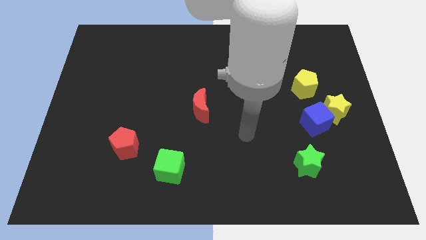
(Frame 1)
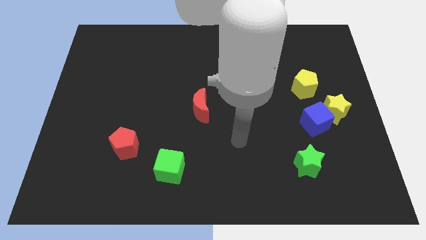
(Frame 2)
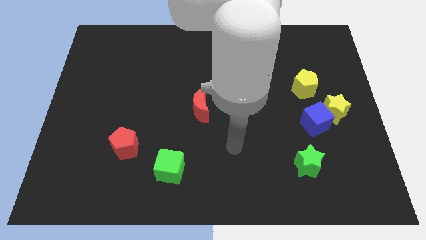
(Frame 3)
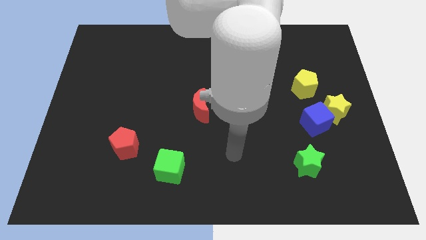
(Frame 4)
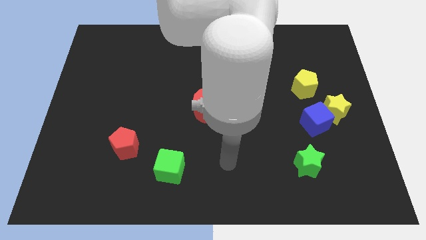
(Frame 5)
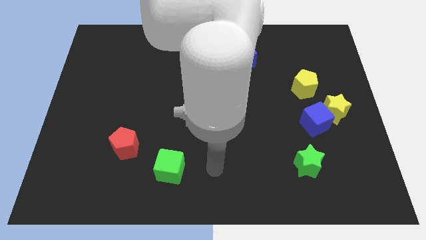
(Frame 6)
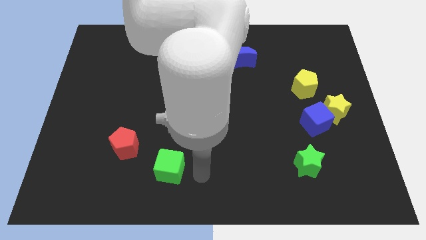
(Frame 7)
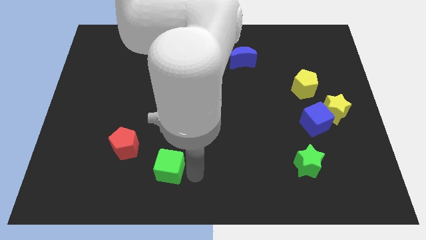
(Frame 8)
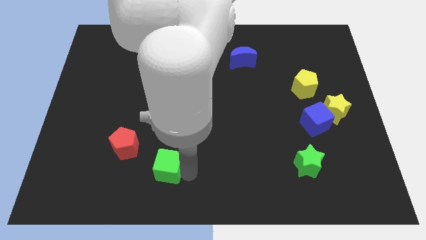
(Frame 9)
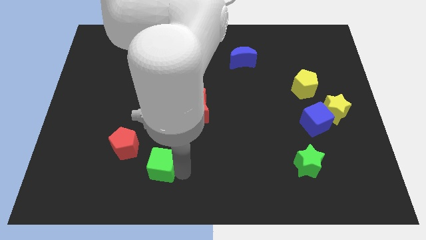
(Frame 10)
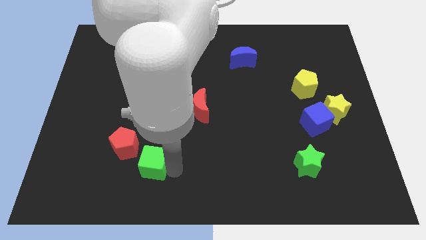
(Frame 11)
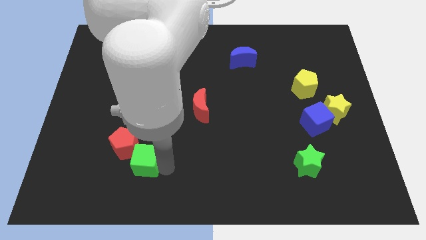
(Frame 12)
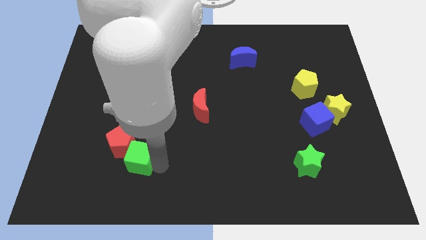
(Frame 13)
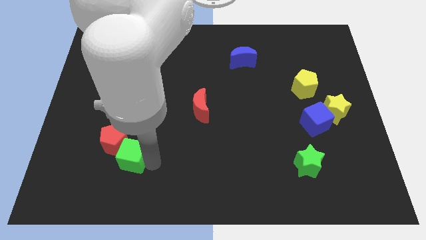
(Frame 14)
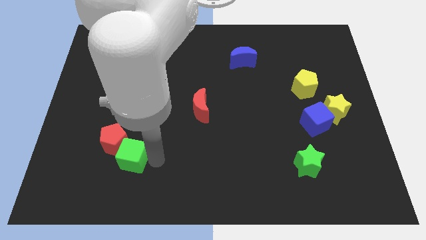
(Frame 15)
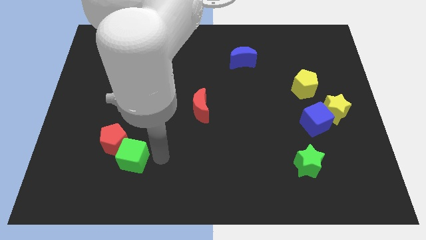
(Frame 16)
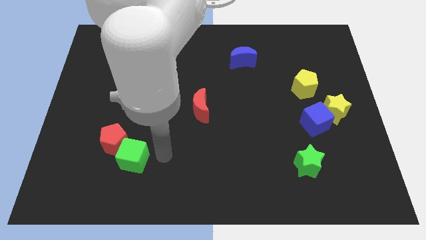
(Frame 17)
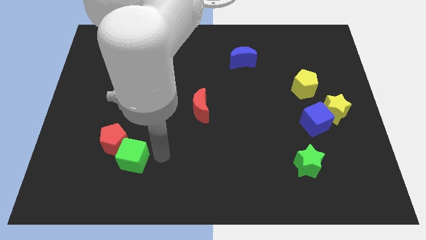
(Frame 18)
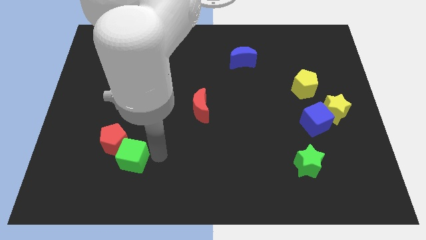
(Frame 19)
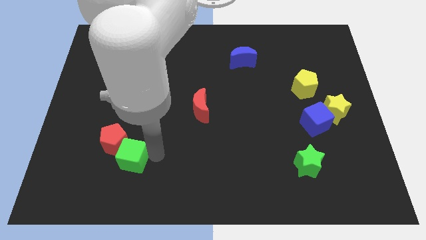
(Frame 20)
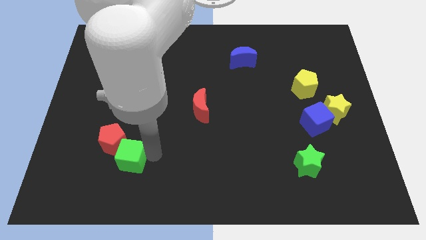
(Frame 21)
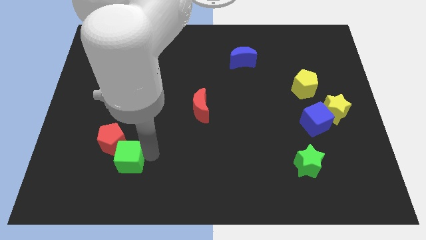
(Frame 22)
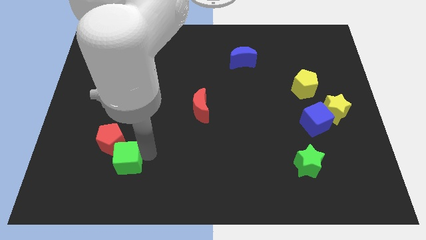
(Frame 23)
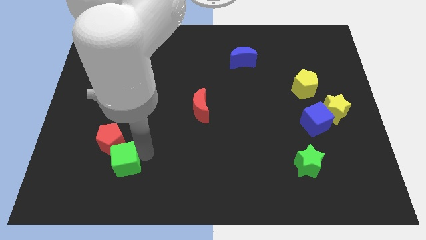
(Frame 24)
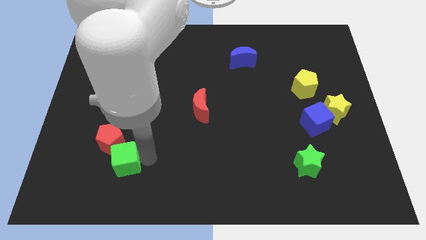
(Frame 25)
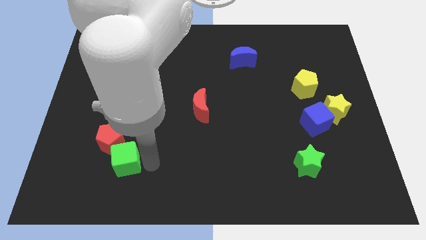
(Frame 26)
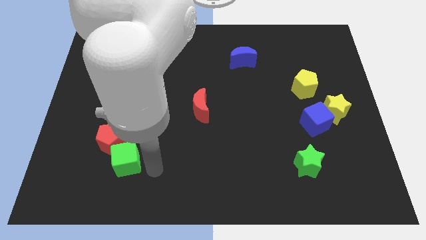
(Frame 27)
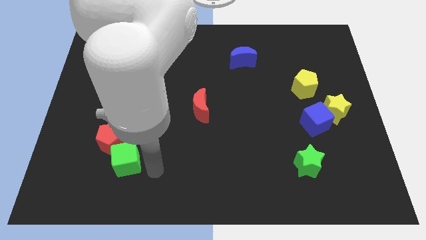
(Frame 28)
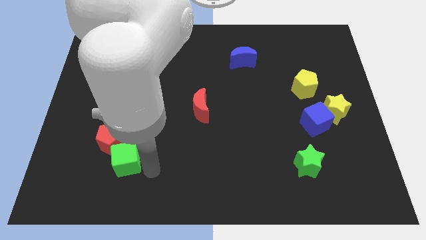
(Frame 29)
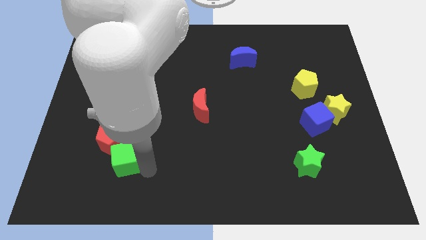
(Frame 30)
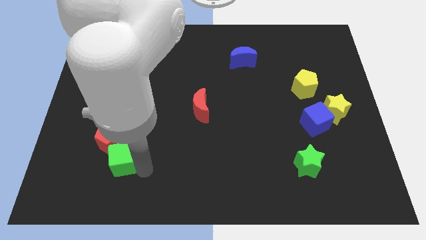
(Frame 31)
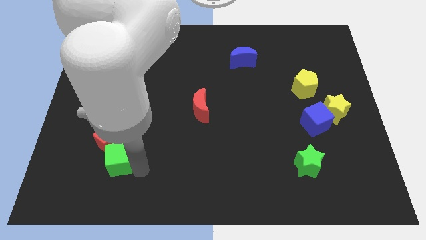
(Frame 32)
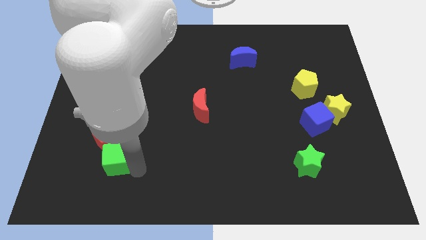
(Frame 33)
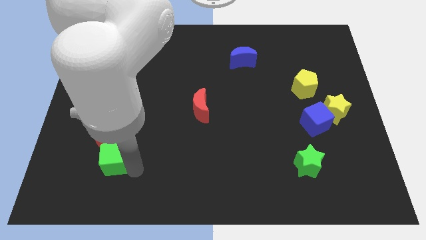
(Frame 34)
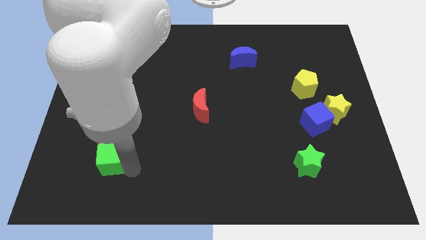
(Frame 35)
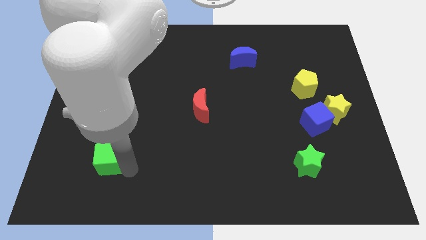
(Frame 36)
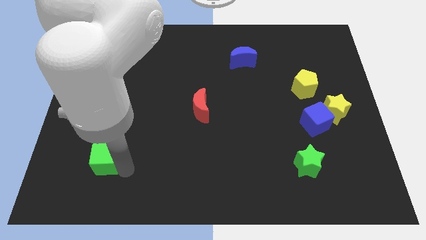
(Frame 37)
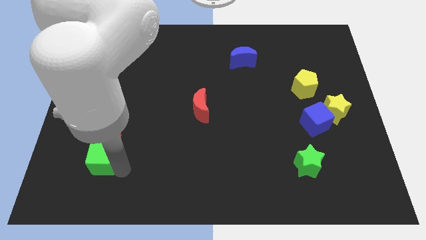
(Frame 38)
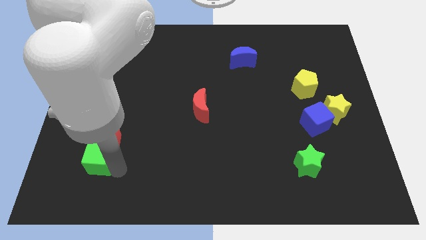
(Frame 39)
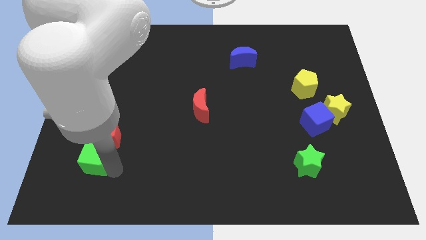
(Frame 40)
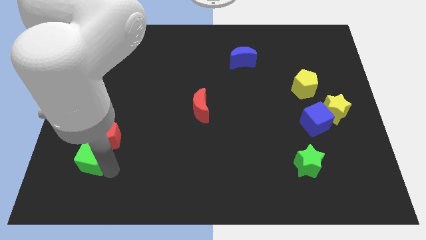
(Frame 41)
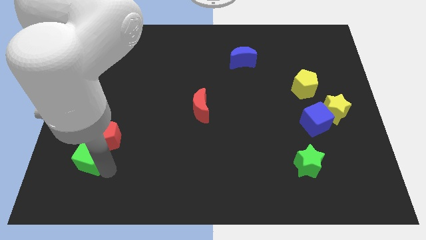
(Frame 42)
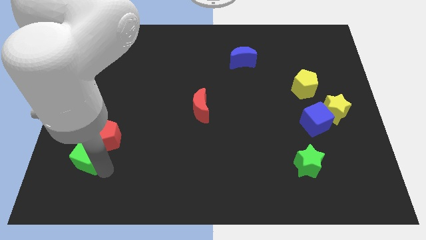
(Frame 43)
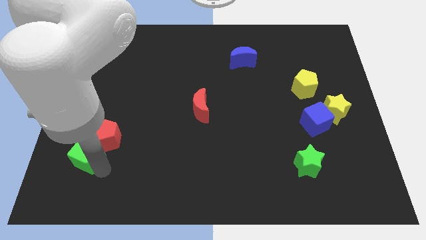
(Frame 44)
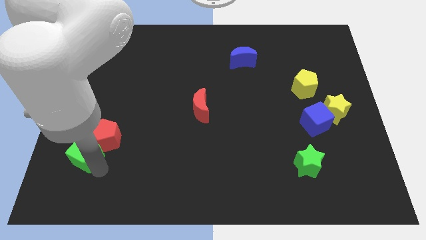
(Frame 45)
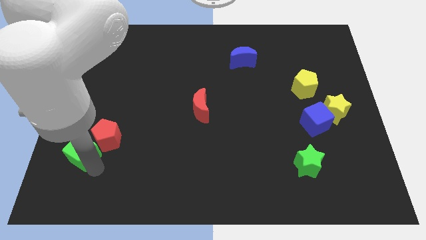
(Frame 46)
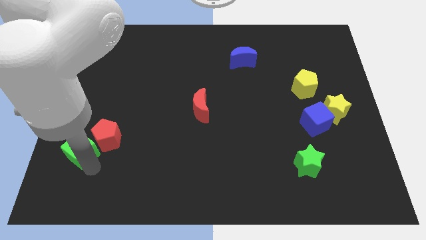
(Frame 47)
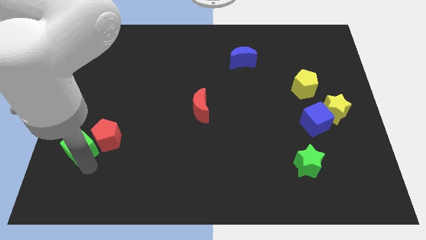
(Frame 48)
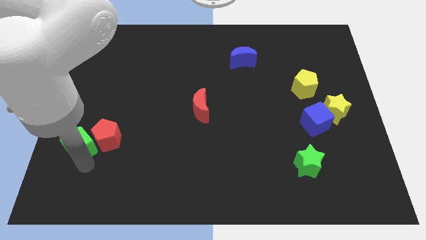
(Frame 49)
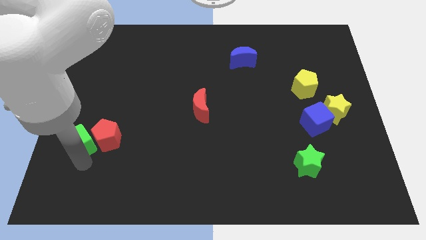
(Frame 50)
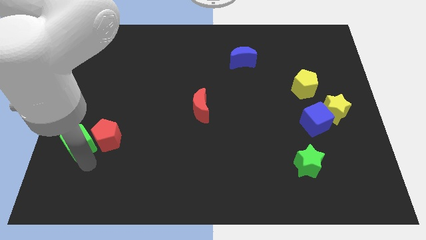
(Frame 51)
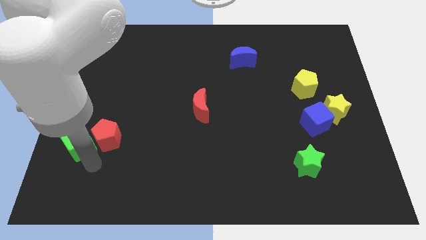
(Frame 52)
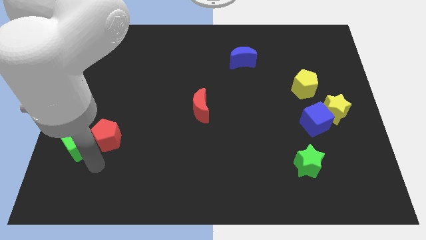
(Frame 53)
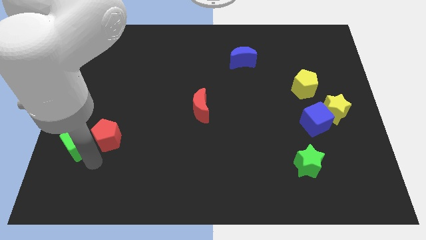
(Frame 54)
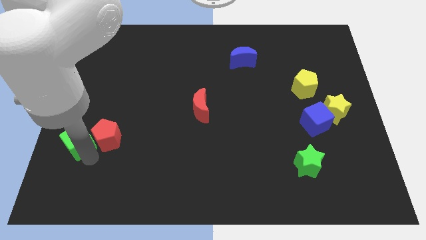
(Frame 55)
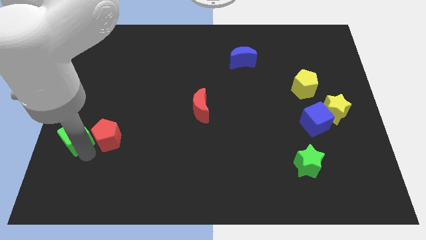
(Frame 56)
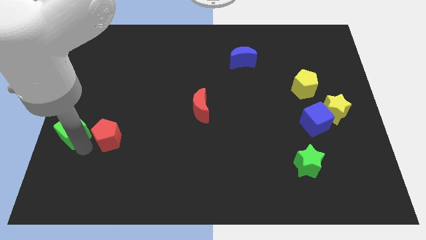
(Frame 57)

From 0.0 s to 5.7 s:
slide the green cube to the center left

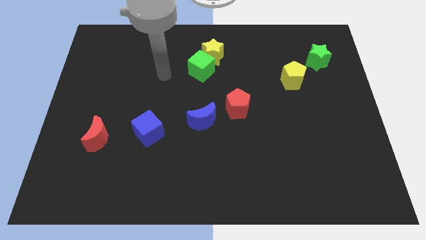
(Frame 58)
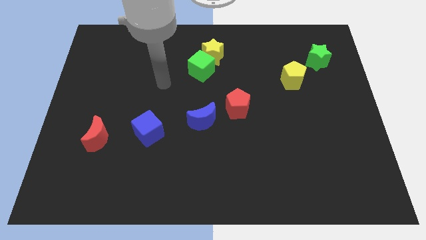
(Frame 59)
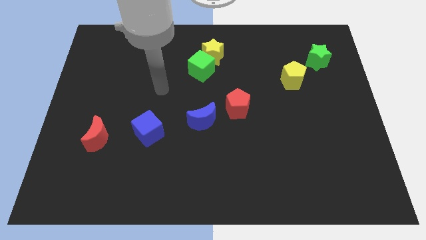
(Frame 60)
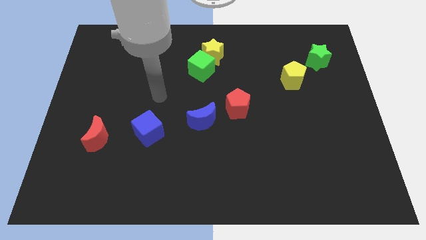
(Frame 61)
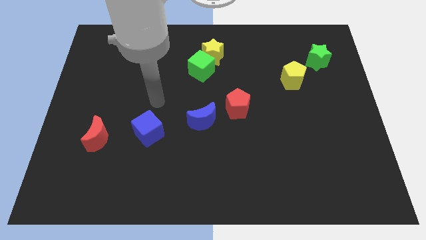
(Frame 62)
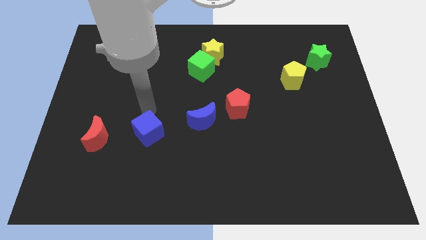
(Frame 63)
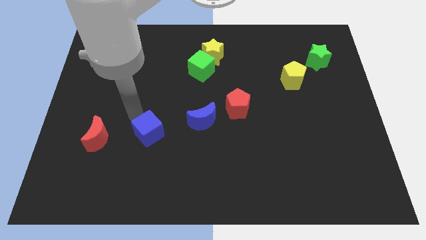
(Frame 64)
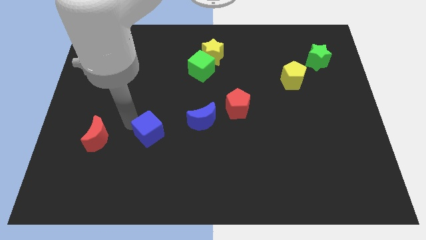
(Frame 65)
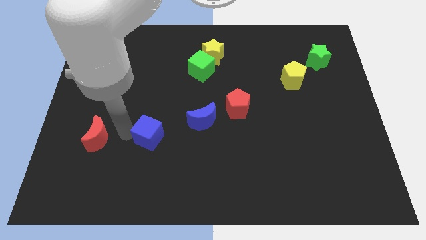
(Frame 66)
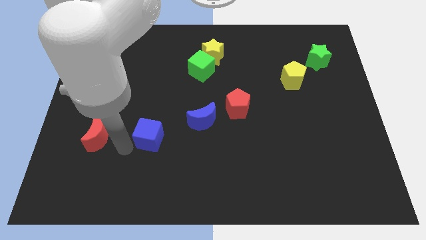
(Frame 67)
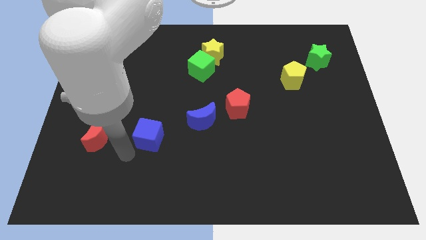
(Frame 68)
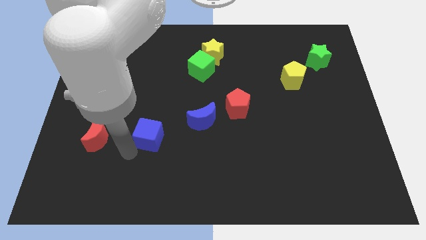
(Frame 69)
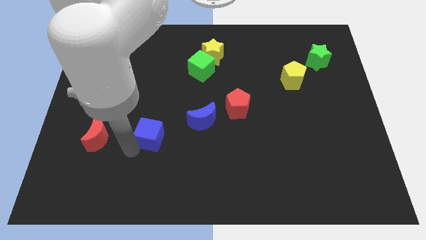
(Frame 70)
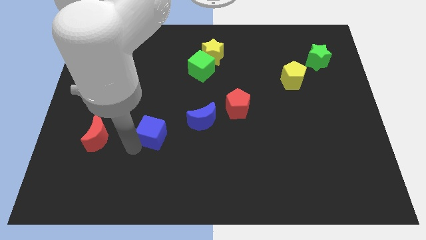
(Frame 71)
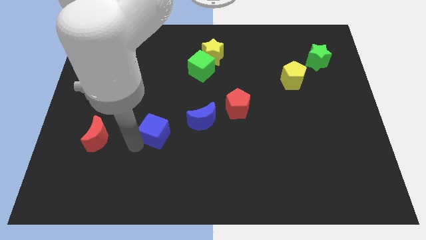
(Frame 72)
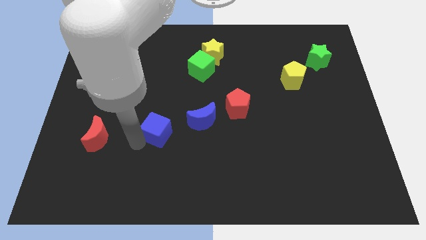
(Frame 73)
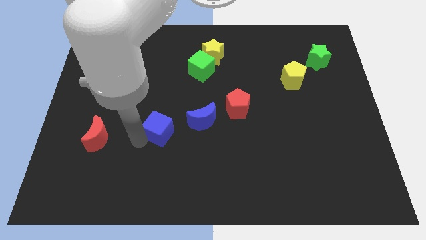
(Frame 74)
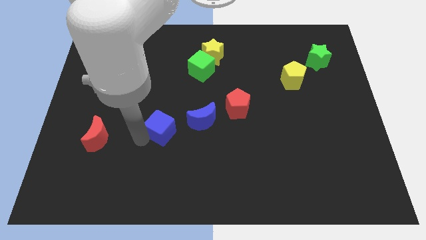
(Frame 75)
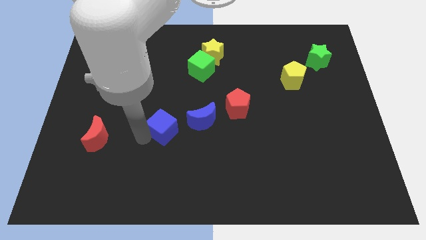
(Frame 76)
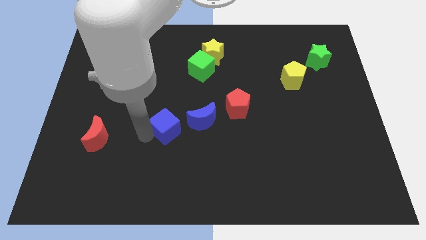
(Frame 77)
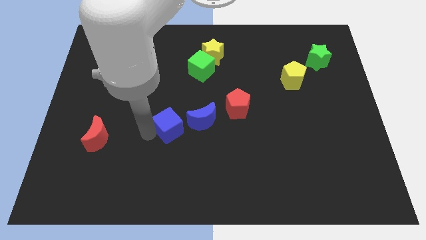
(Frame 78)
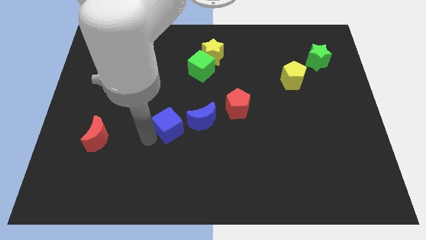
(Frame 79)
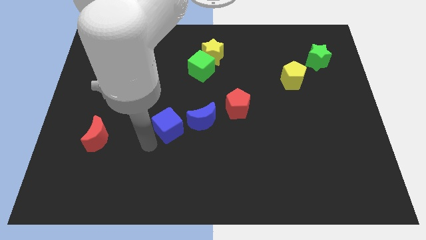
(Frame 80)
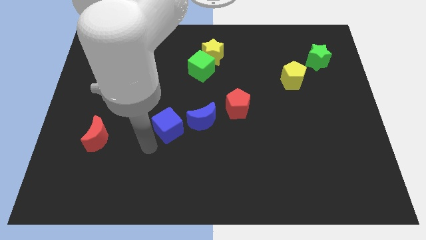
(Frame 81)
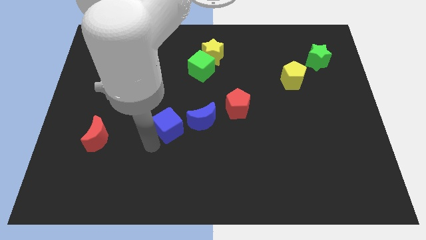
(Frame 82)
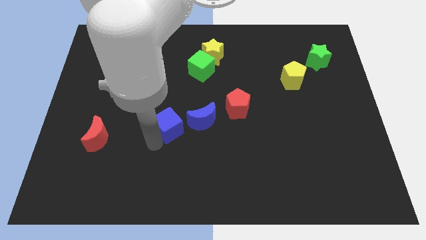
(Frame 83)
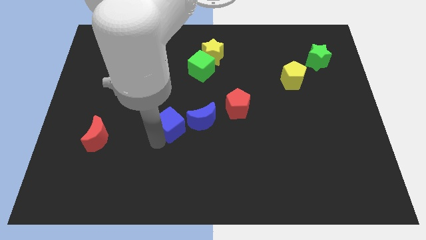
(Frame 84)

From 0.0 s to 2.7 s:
put the blue cube to the center of the board

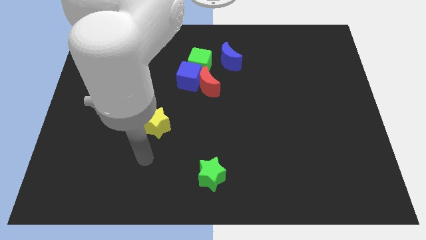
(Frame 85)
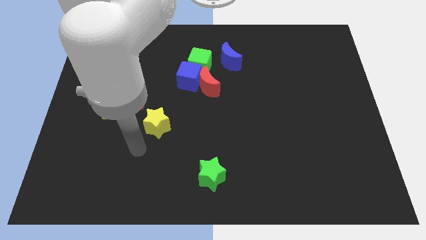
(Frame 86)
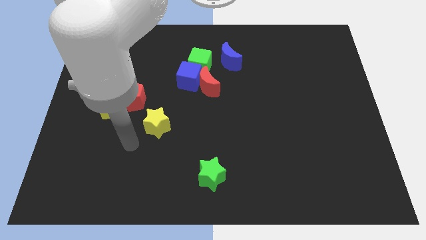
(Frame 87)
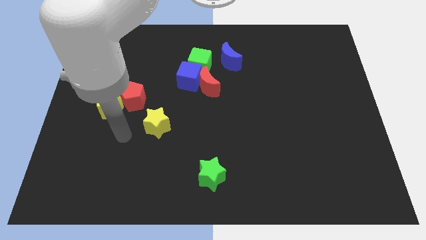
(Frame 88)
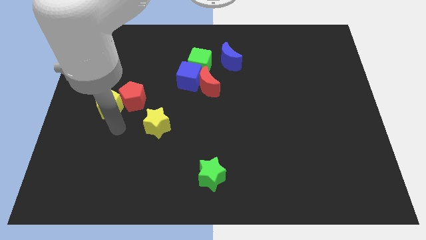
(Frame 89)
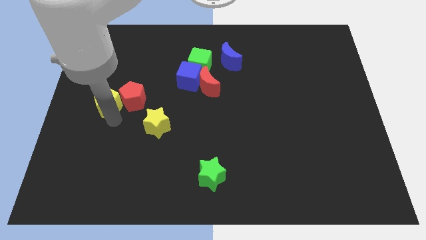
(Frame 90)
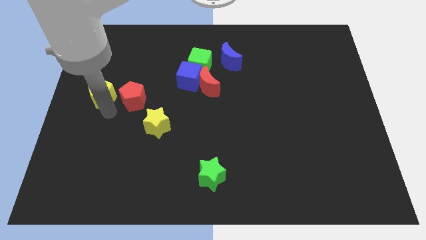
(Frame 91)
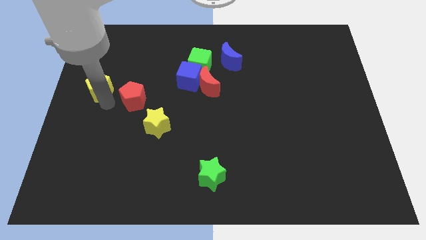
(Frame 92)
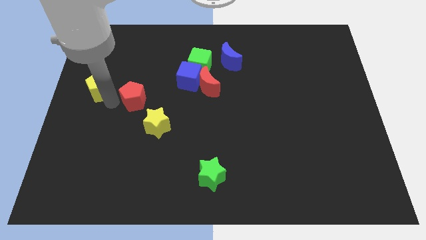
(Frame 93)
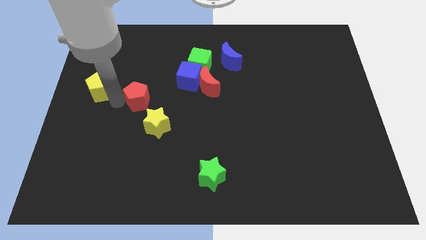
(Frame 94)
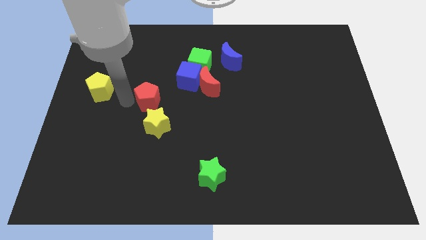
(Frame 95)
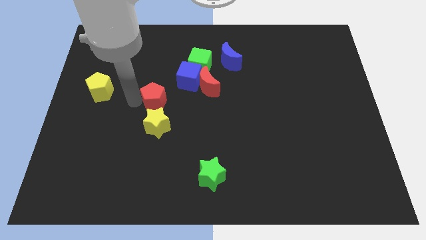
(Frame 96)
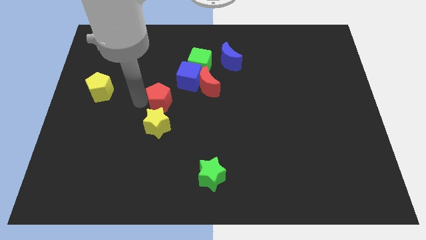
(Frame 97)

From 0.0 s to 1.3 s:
move the red pentagon to the middle
